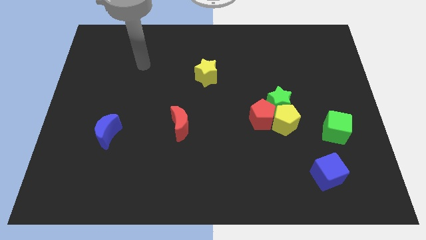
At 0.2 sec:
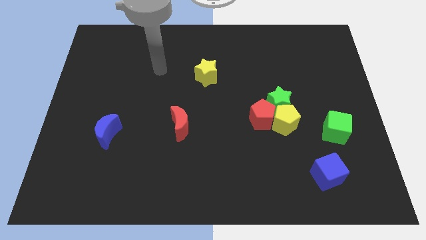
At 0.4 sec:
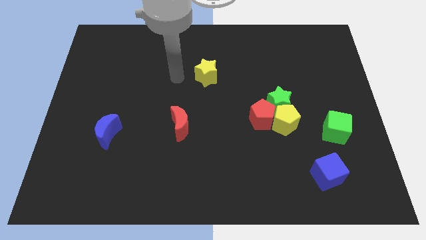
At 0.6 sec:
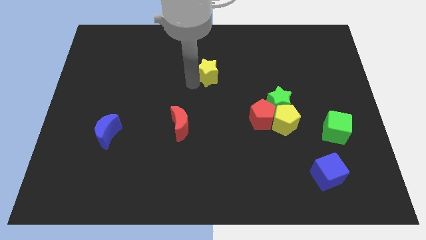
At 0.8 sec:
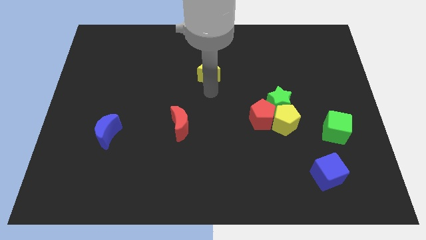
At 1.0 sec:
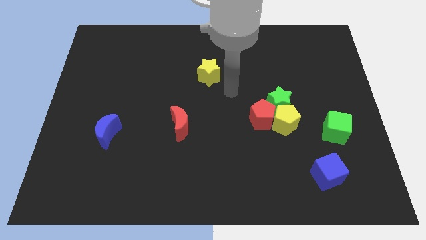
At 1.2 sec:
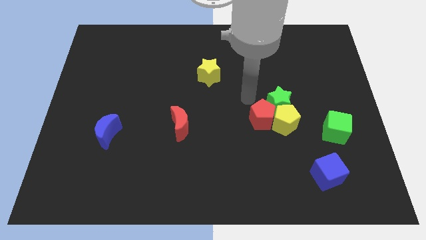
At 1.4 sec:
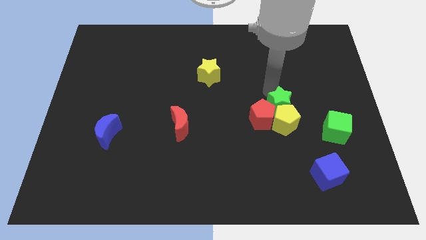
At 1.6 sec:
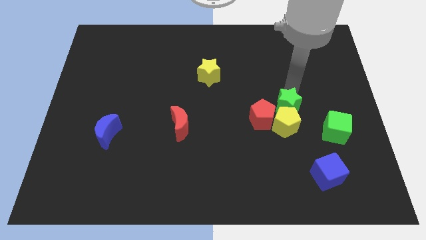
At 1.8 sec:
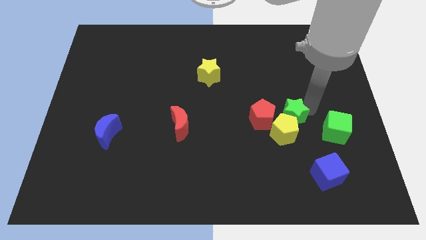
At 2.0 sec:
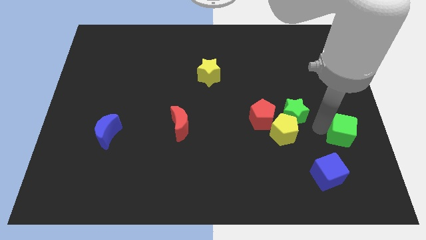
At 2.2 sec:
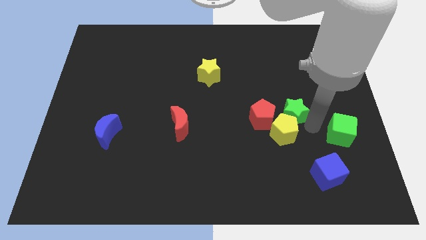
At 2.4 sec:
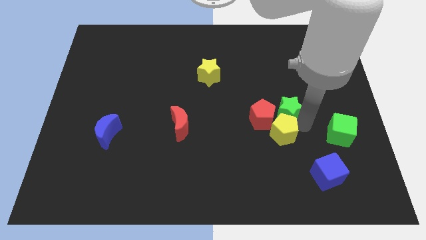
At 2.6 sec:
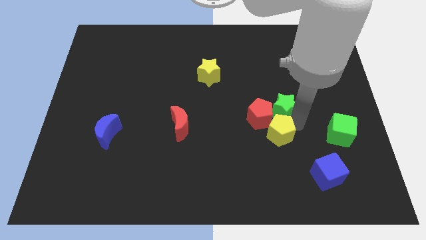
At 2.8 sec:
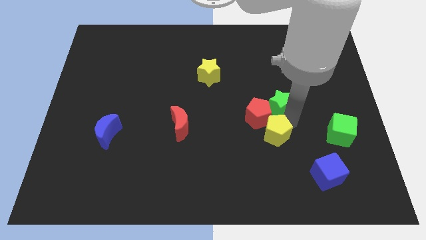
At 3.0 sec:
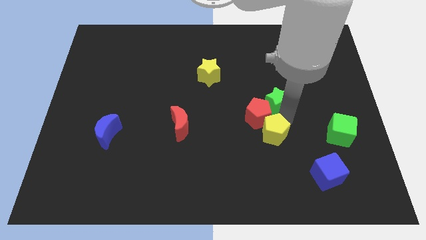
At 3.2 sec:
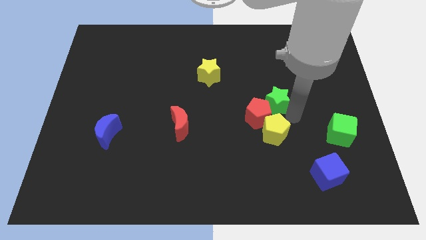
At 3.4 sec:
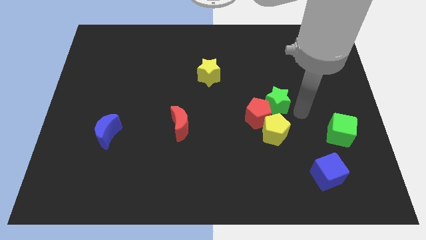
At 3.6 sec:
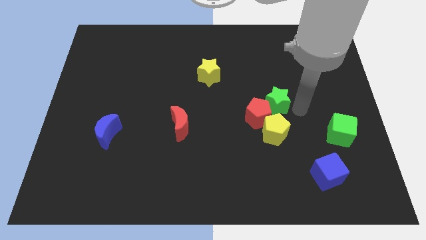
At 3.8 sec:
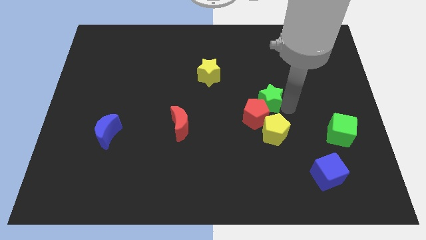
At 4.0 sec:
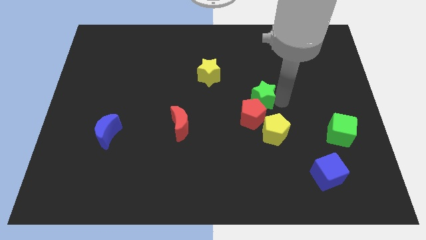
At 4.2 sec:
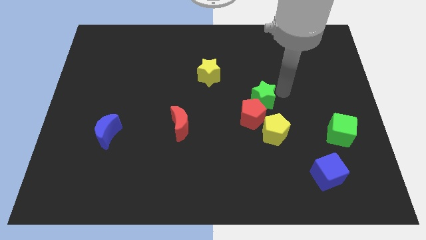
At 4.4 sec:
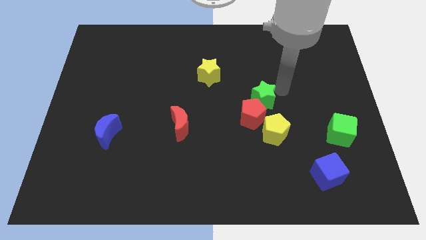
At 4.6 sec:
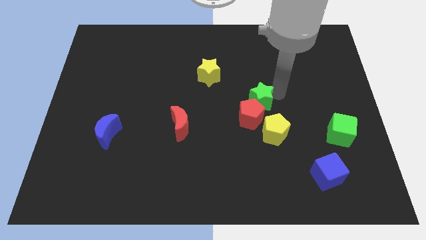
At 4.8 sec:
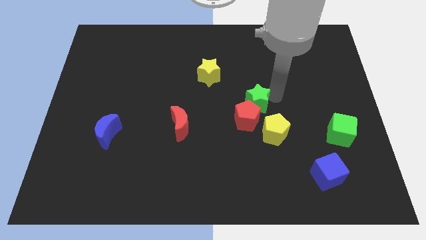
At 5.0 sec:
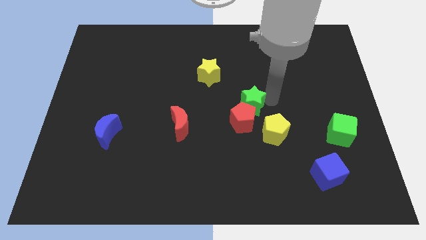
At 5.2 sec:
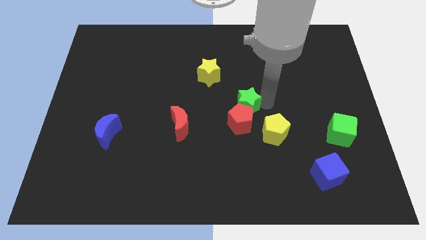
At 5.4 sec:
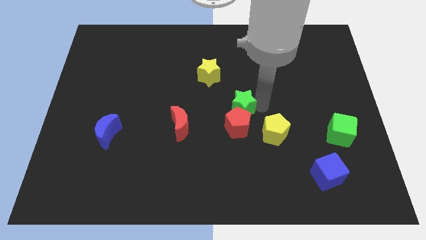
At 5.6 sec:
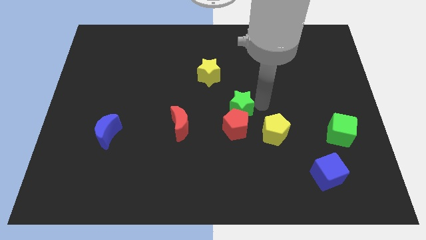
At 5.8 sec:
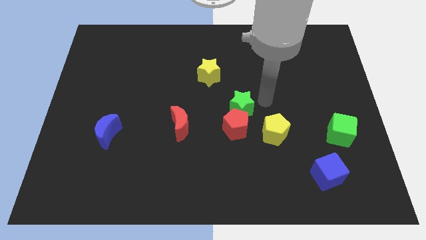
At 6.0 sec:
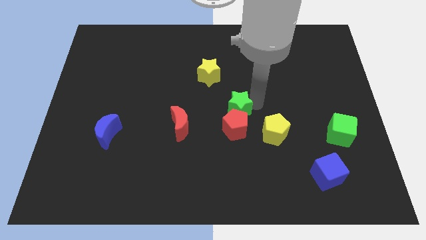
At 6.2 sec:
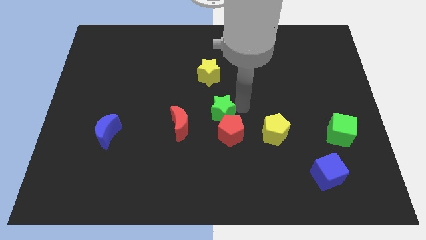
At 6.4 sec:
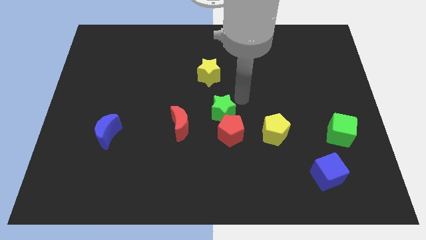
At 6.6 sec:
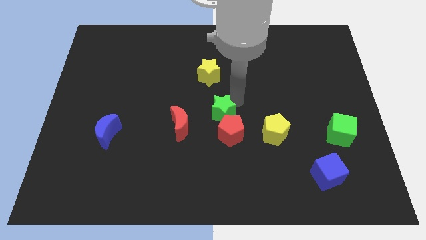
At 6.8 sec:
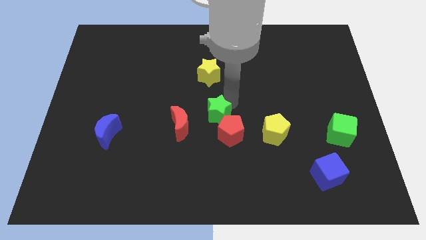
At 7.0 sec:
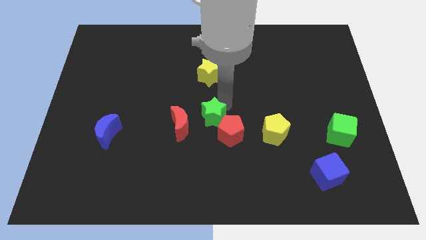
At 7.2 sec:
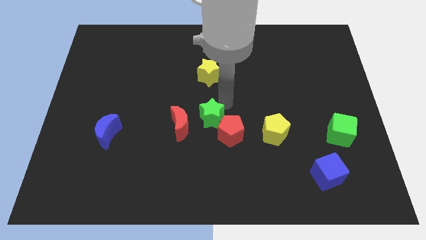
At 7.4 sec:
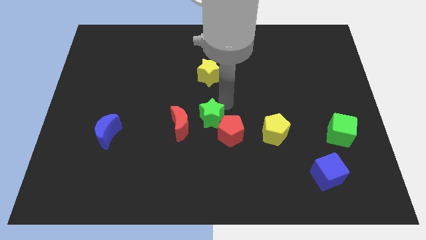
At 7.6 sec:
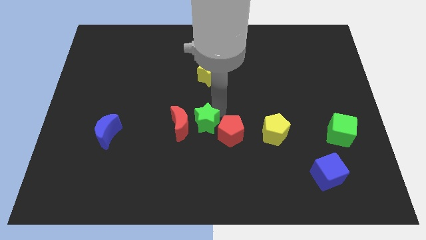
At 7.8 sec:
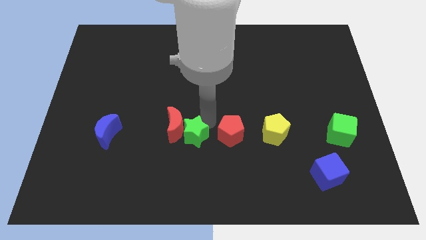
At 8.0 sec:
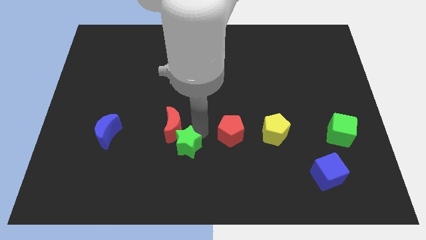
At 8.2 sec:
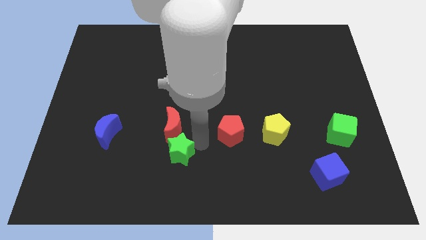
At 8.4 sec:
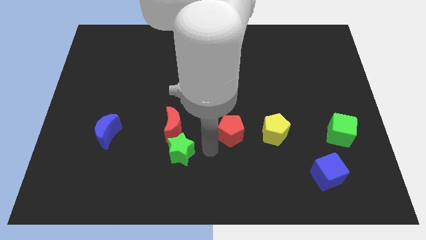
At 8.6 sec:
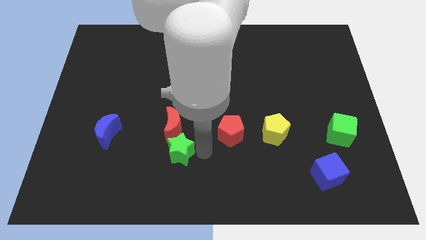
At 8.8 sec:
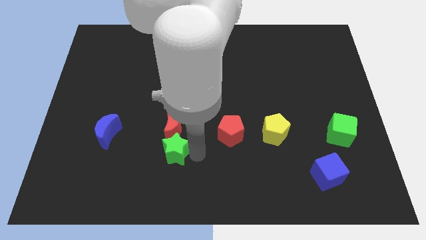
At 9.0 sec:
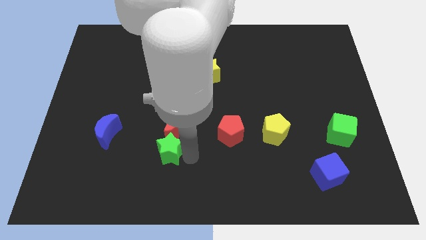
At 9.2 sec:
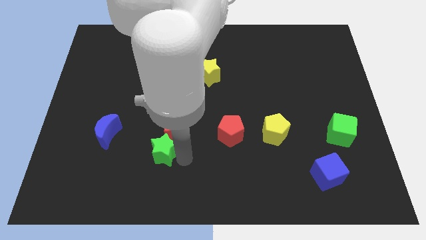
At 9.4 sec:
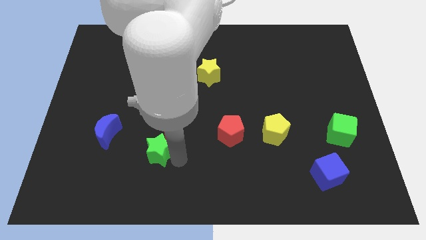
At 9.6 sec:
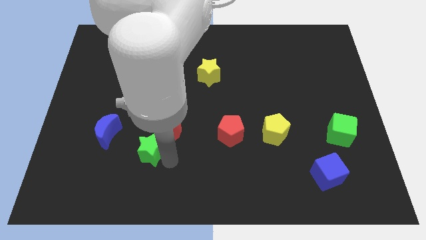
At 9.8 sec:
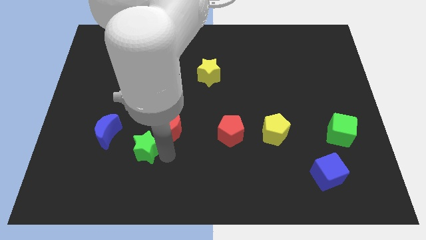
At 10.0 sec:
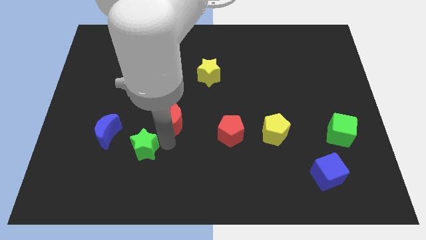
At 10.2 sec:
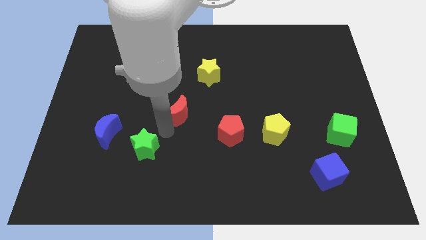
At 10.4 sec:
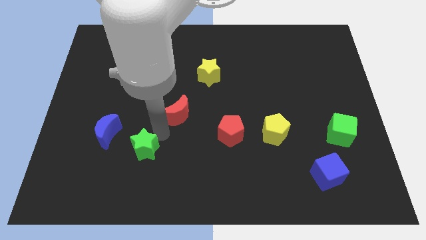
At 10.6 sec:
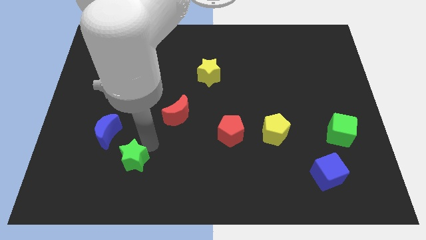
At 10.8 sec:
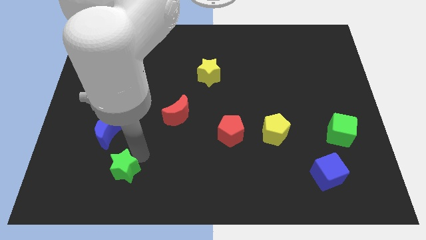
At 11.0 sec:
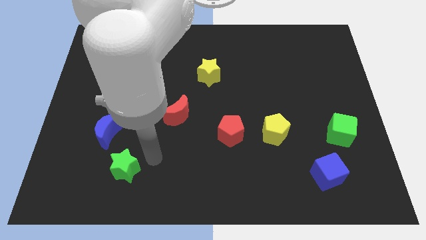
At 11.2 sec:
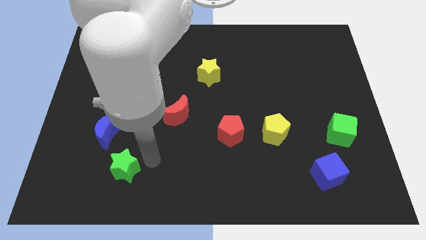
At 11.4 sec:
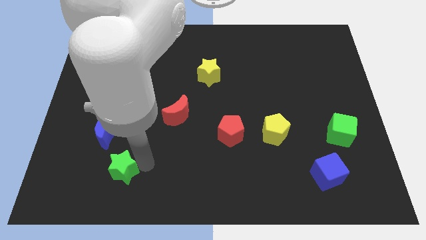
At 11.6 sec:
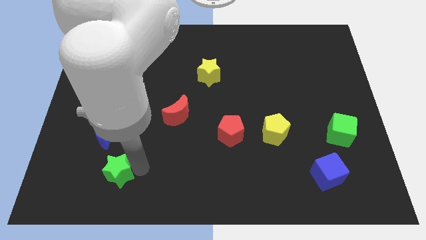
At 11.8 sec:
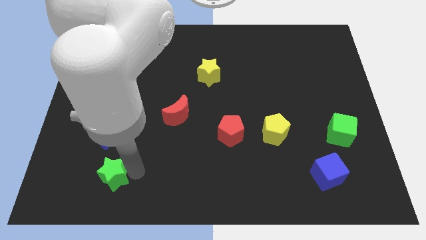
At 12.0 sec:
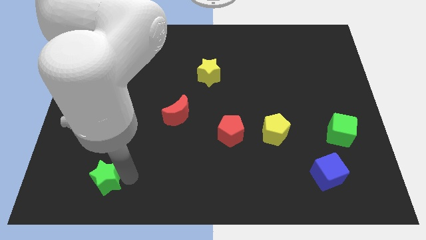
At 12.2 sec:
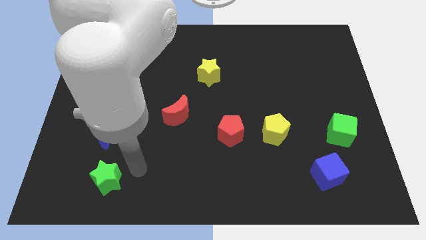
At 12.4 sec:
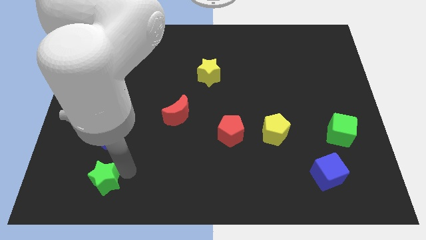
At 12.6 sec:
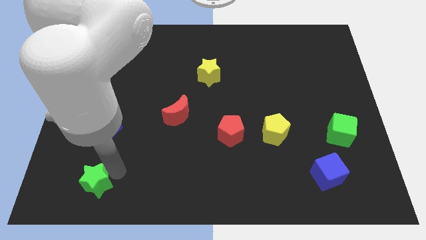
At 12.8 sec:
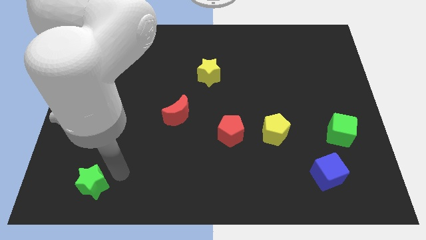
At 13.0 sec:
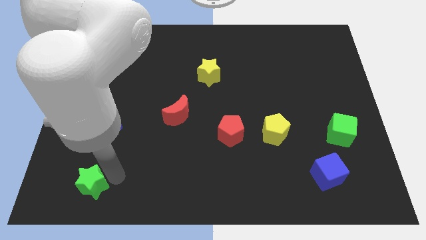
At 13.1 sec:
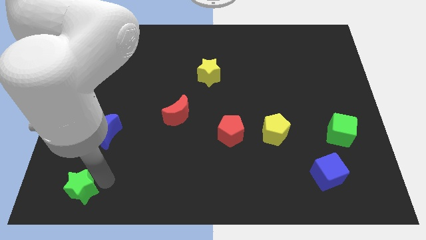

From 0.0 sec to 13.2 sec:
move the green star to the bottom left of the board

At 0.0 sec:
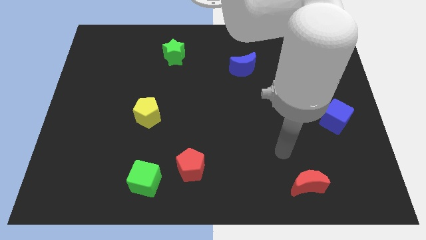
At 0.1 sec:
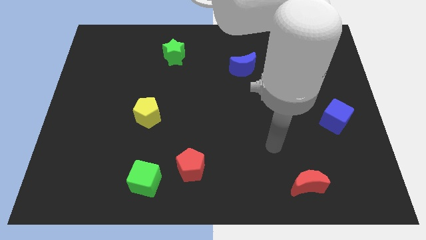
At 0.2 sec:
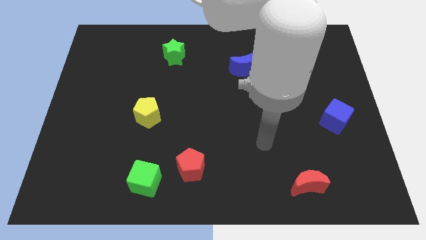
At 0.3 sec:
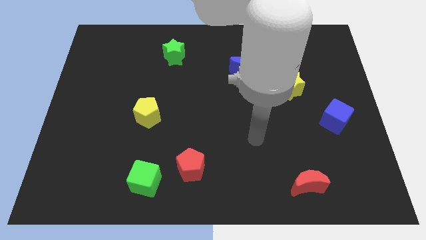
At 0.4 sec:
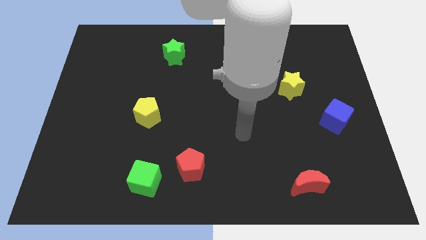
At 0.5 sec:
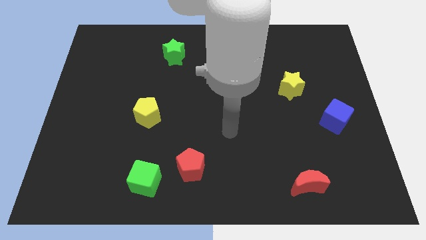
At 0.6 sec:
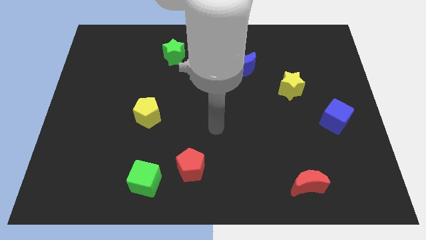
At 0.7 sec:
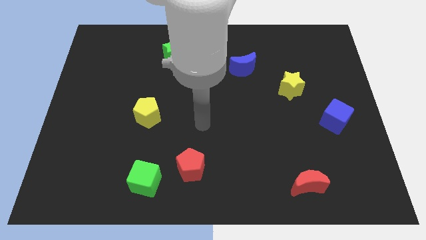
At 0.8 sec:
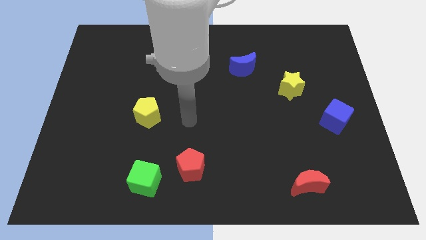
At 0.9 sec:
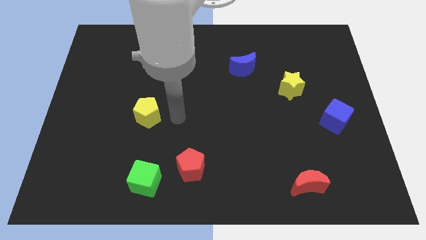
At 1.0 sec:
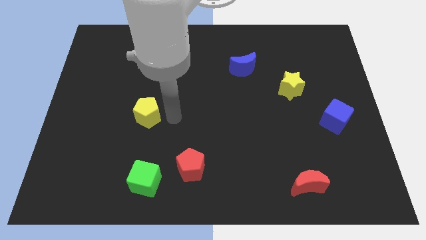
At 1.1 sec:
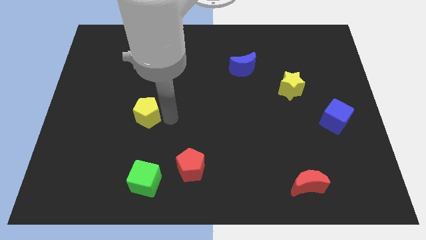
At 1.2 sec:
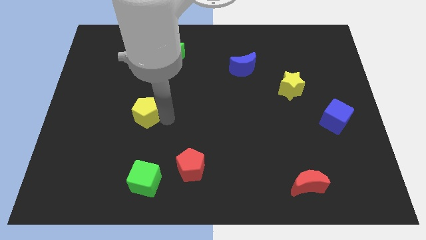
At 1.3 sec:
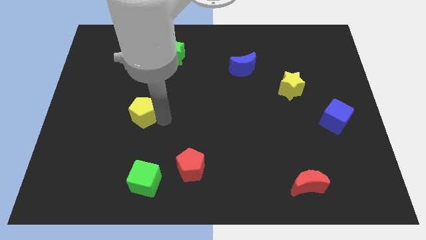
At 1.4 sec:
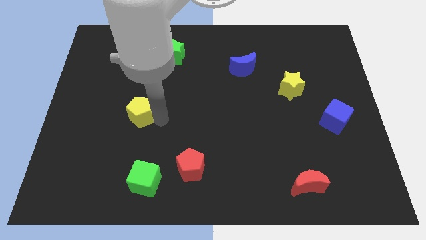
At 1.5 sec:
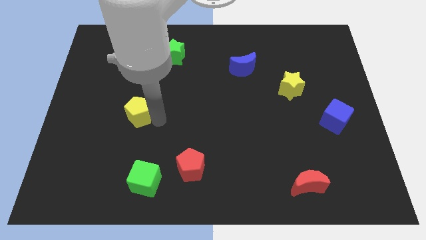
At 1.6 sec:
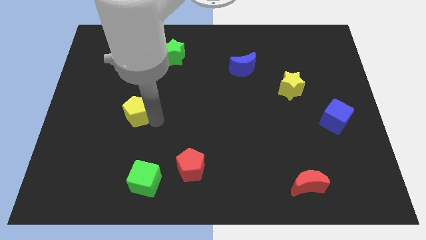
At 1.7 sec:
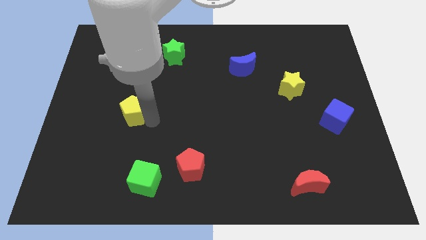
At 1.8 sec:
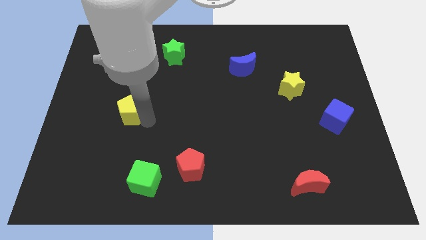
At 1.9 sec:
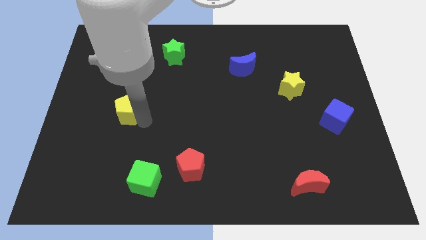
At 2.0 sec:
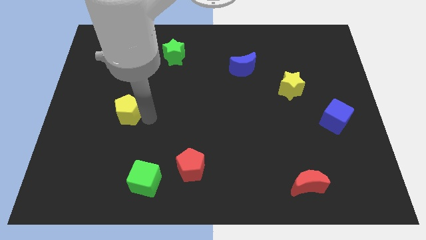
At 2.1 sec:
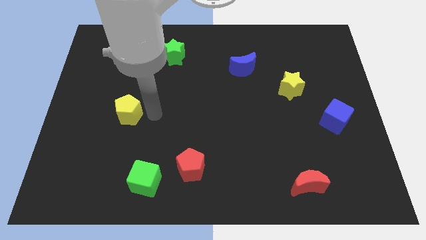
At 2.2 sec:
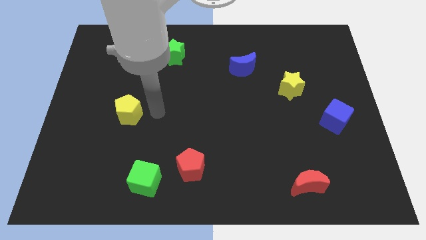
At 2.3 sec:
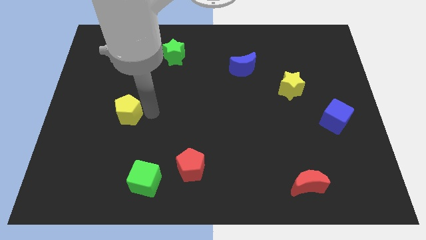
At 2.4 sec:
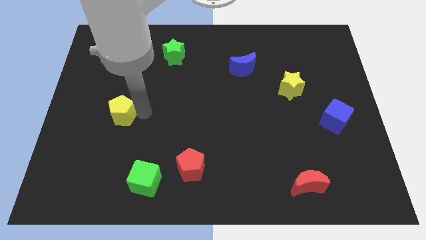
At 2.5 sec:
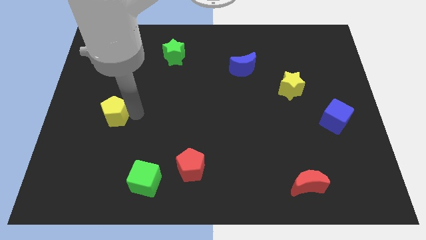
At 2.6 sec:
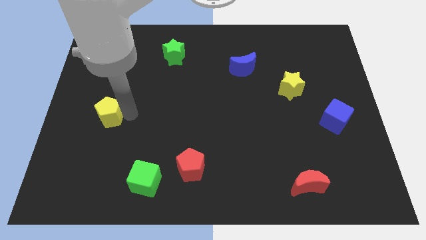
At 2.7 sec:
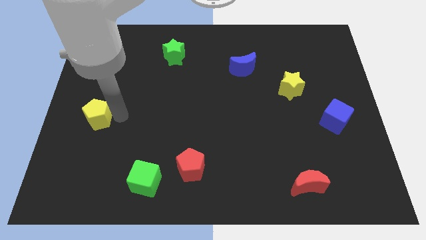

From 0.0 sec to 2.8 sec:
push the yellow pentagon to the center left
